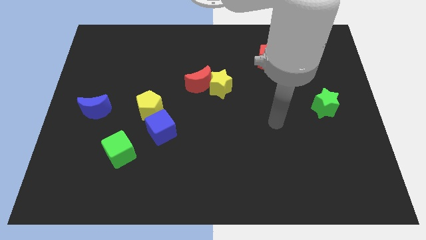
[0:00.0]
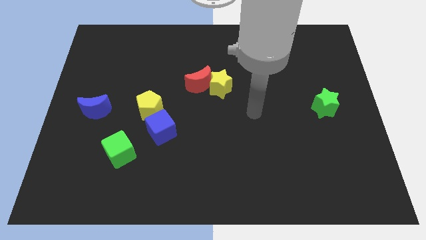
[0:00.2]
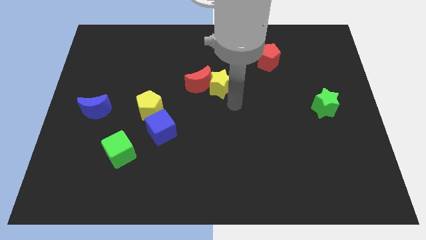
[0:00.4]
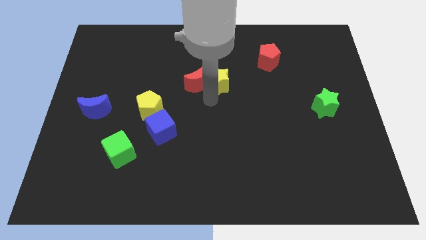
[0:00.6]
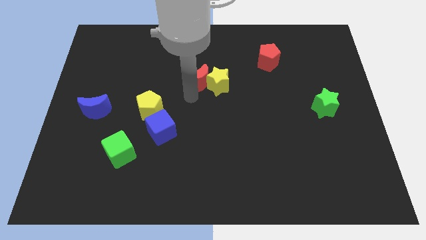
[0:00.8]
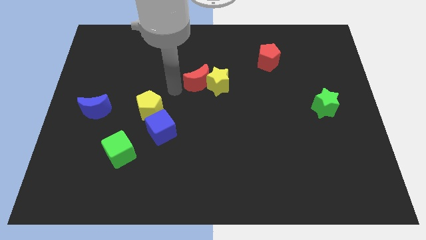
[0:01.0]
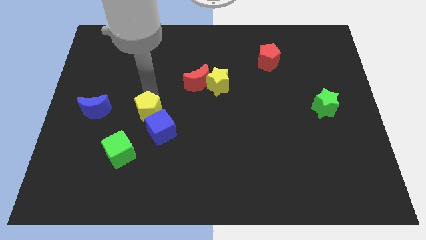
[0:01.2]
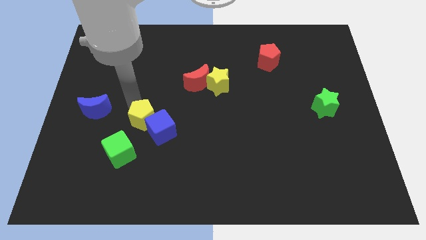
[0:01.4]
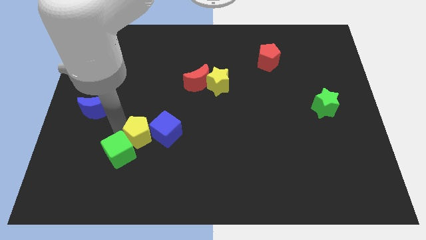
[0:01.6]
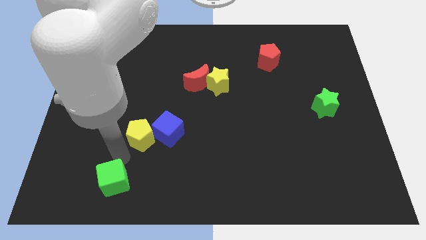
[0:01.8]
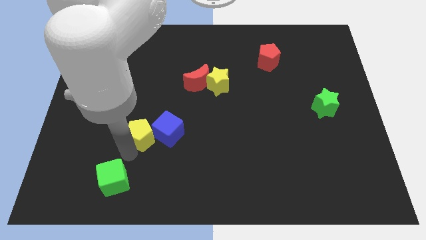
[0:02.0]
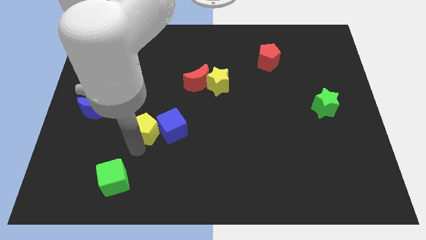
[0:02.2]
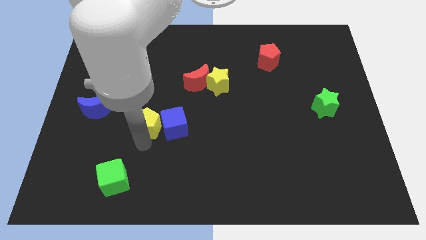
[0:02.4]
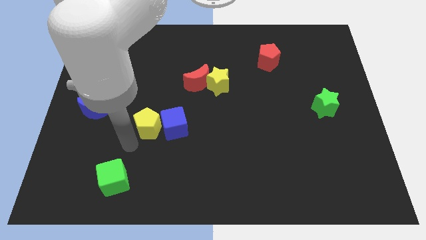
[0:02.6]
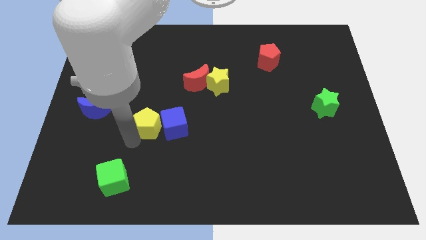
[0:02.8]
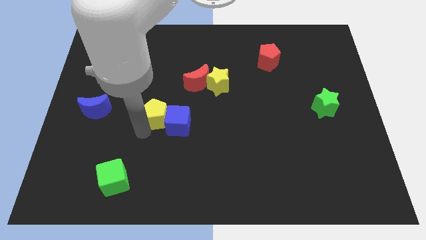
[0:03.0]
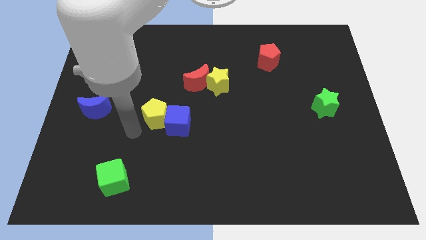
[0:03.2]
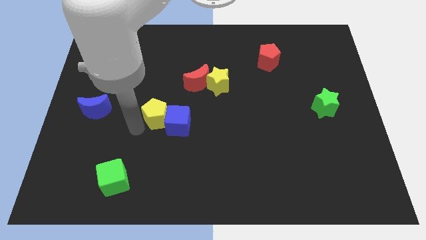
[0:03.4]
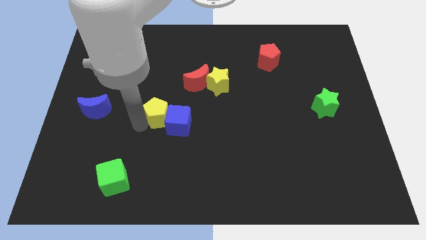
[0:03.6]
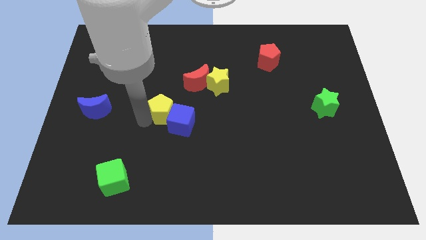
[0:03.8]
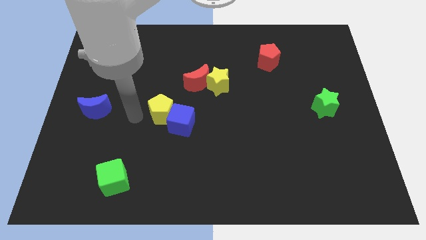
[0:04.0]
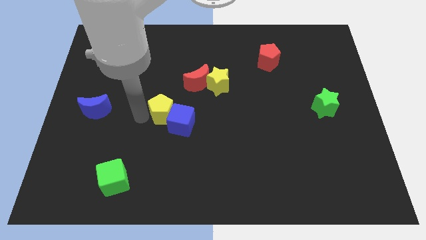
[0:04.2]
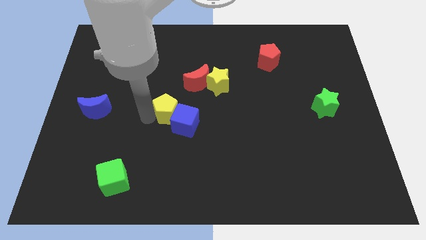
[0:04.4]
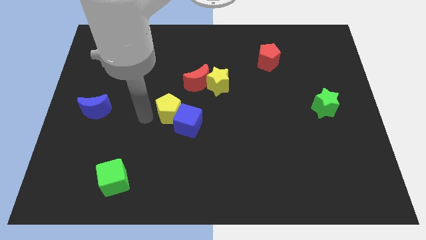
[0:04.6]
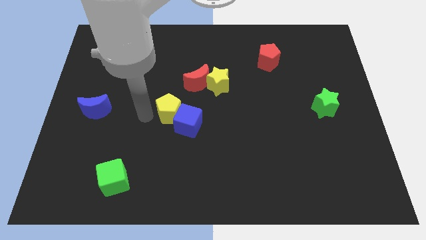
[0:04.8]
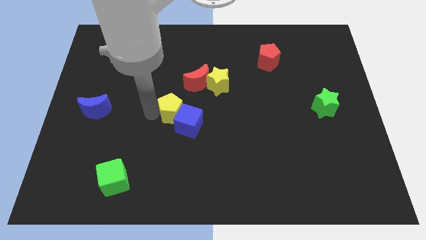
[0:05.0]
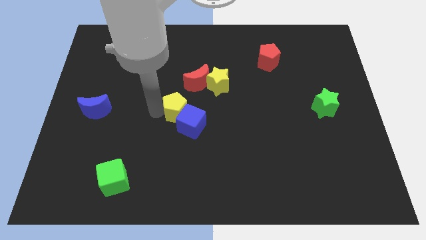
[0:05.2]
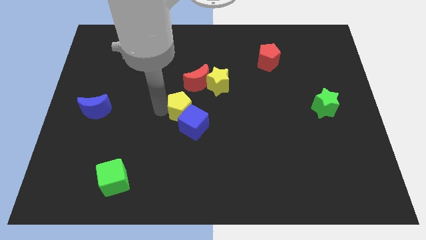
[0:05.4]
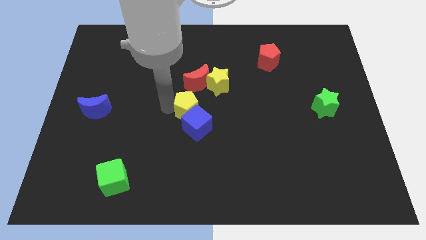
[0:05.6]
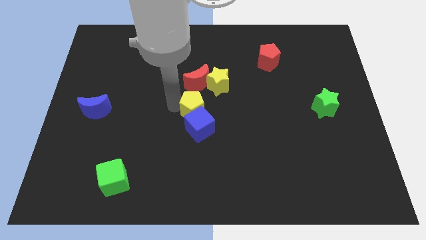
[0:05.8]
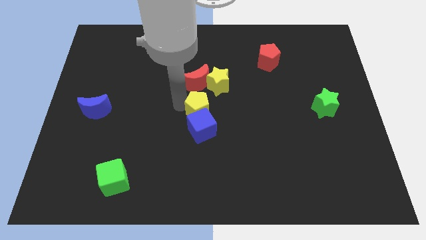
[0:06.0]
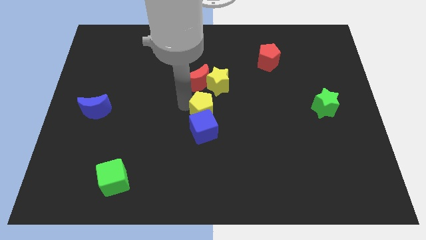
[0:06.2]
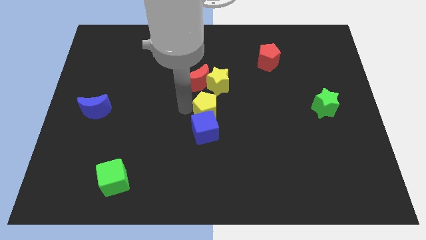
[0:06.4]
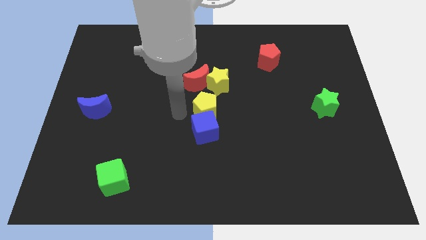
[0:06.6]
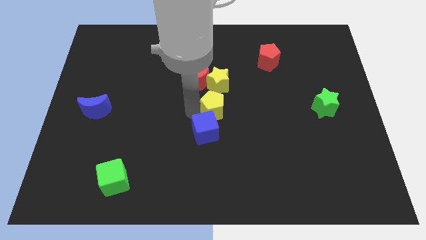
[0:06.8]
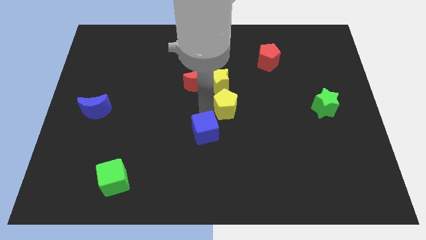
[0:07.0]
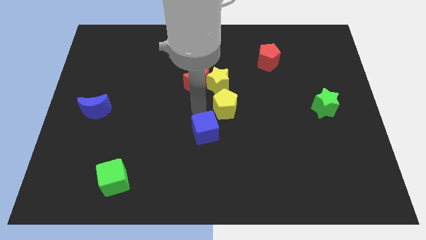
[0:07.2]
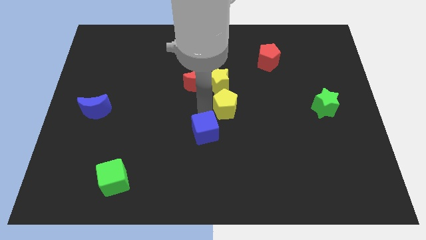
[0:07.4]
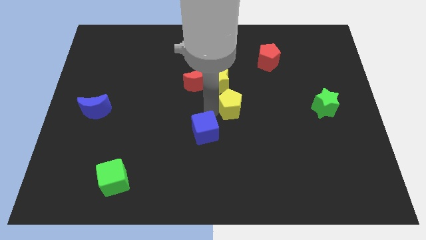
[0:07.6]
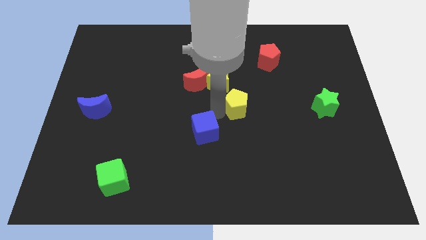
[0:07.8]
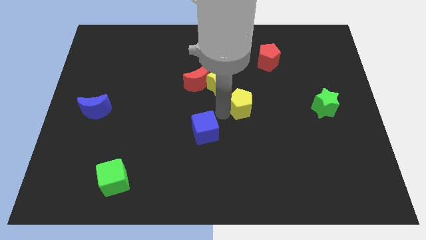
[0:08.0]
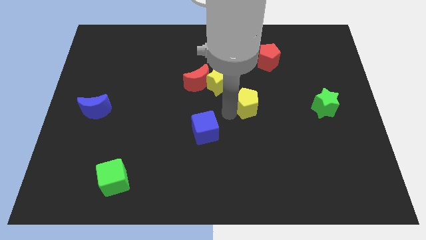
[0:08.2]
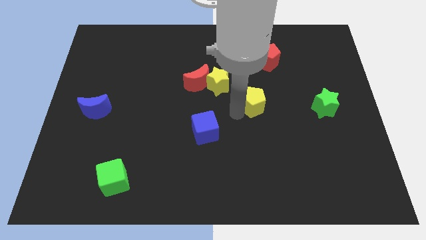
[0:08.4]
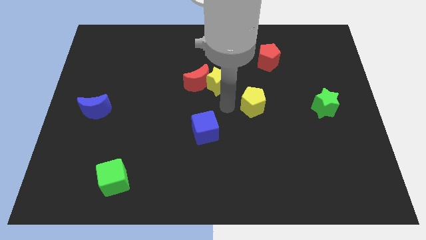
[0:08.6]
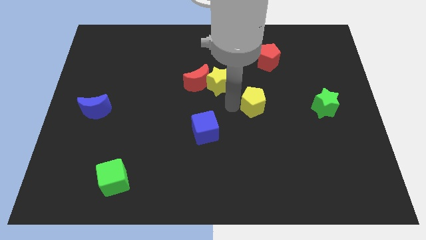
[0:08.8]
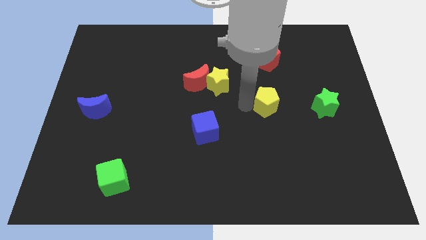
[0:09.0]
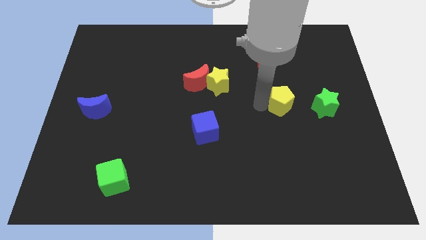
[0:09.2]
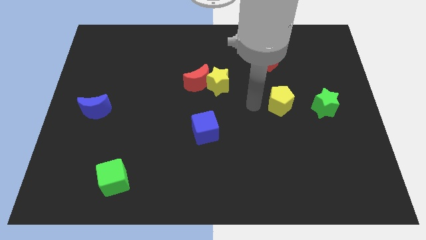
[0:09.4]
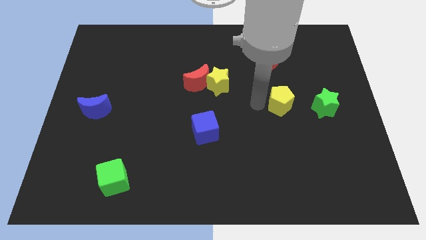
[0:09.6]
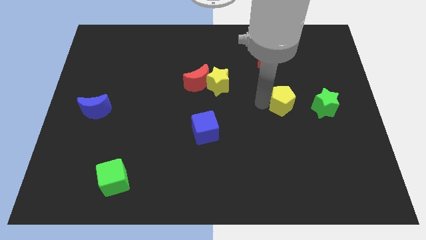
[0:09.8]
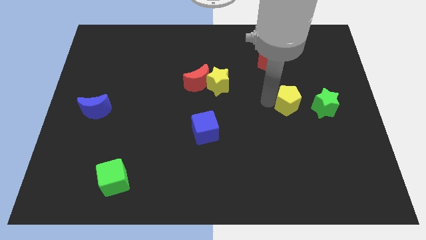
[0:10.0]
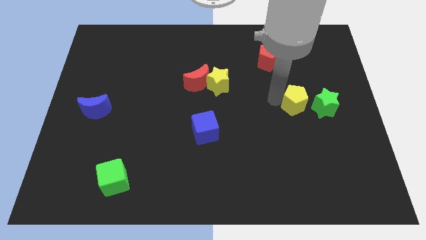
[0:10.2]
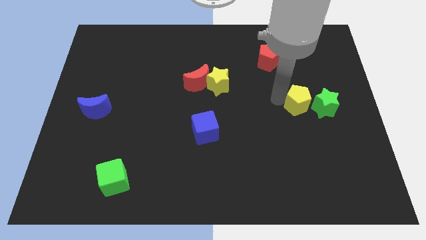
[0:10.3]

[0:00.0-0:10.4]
move the yellow pentagon towards the green star

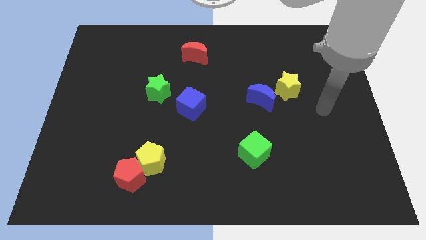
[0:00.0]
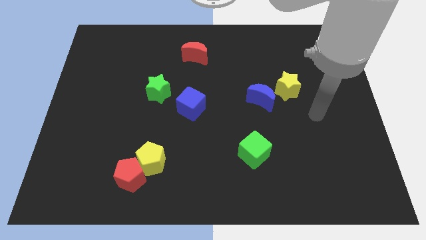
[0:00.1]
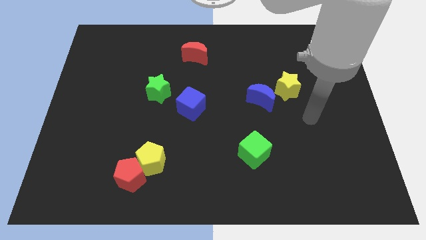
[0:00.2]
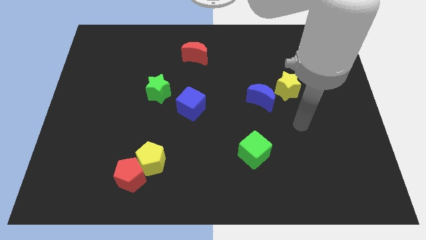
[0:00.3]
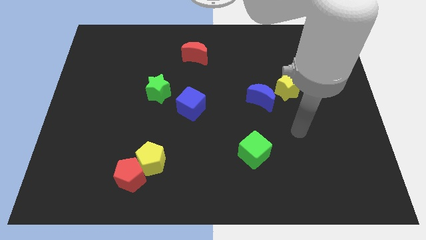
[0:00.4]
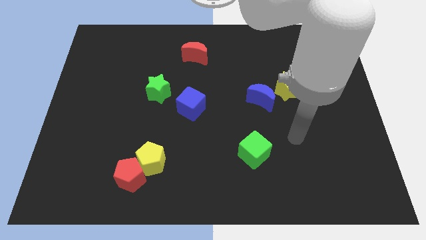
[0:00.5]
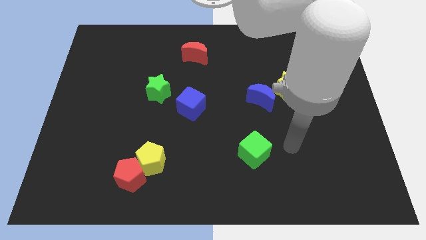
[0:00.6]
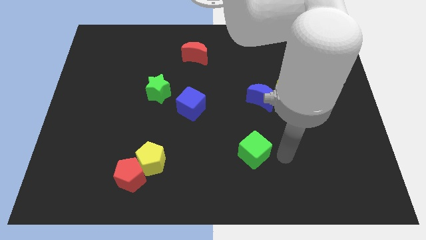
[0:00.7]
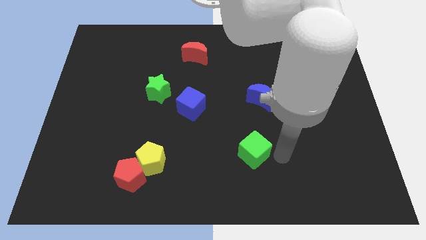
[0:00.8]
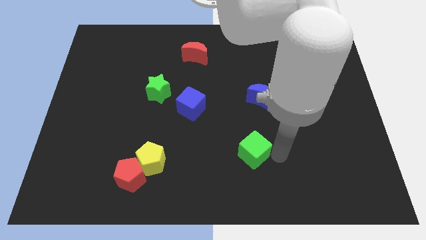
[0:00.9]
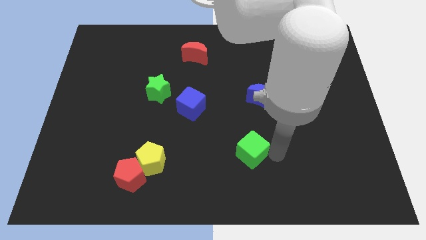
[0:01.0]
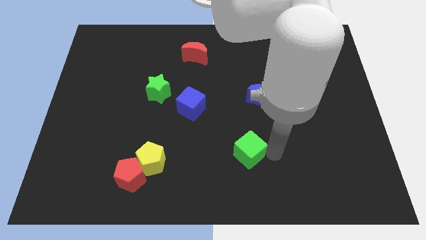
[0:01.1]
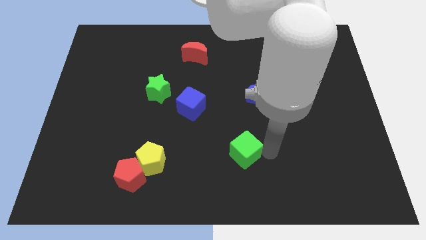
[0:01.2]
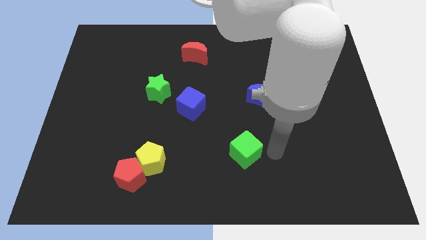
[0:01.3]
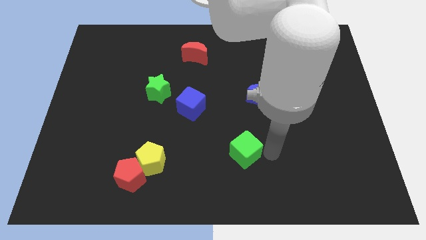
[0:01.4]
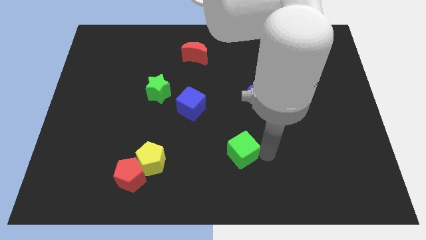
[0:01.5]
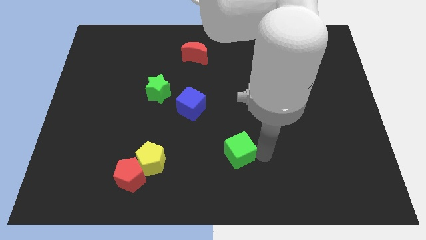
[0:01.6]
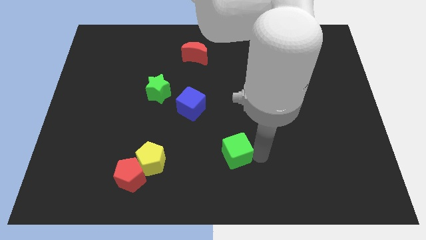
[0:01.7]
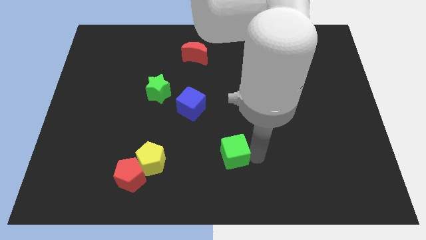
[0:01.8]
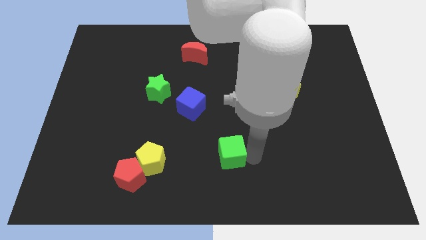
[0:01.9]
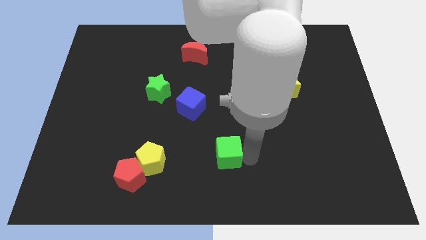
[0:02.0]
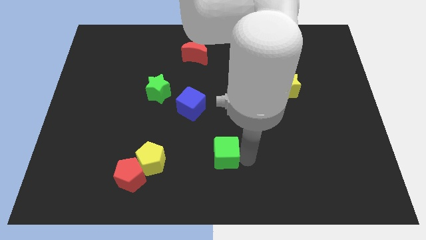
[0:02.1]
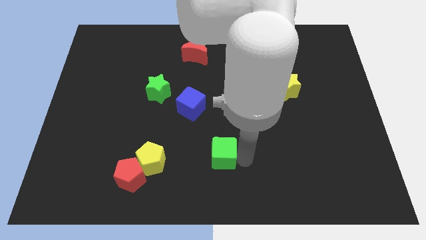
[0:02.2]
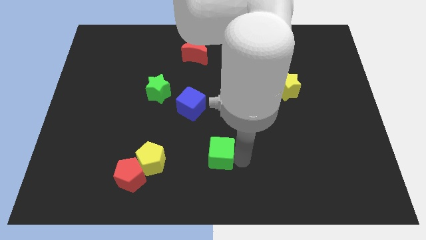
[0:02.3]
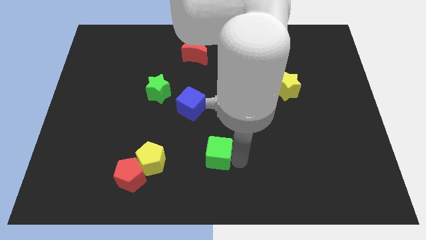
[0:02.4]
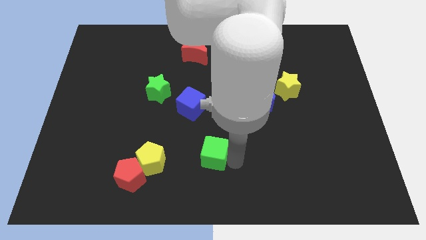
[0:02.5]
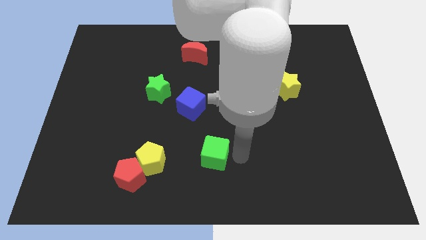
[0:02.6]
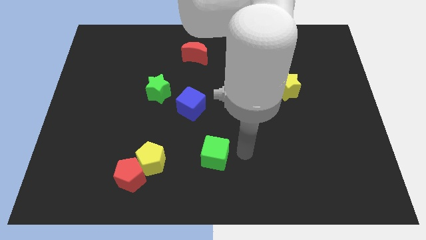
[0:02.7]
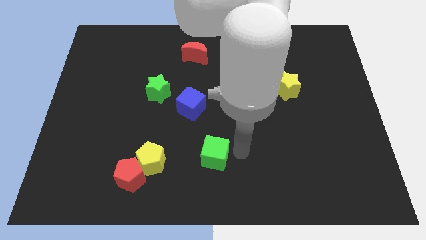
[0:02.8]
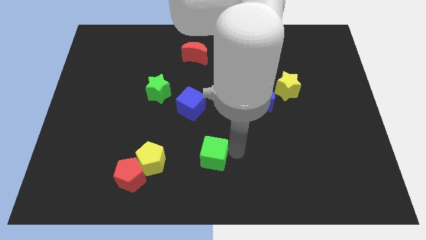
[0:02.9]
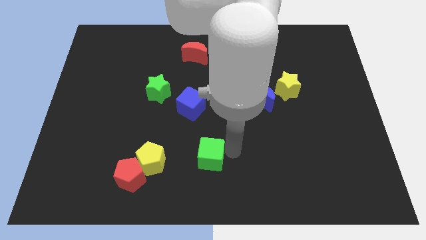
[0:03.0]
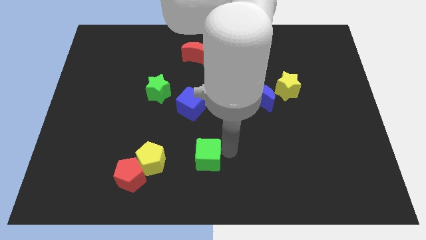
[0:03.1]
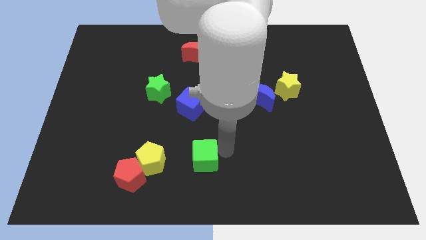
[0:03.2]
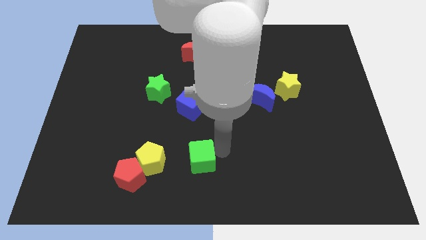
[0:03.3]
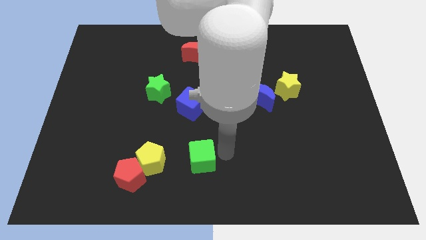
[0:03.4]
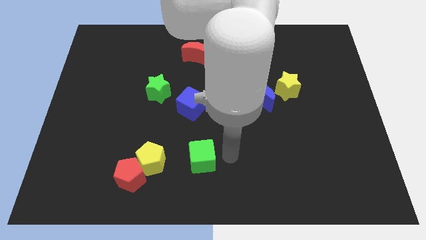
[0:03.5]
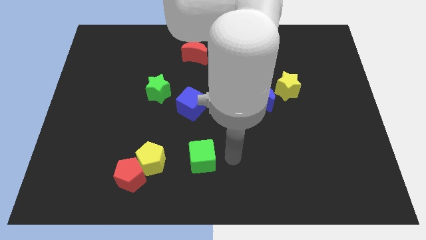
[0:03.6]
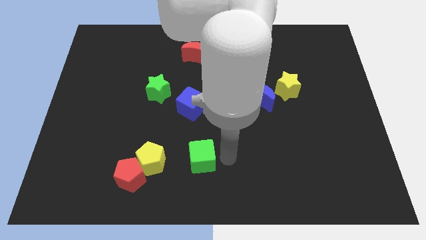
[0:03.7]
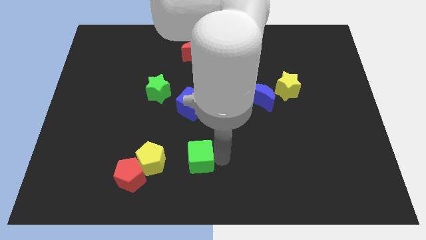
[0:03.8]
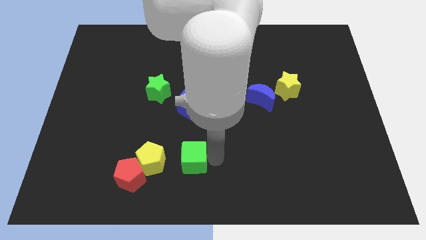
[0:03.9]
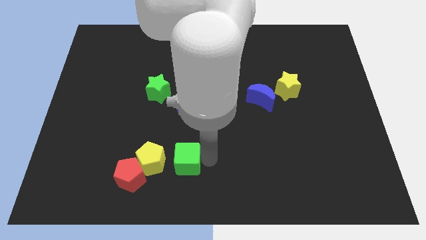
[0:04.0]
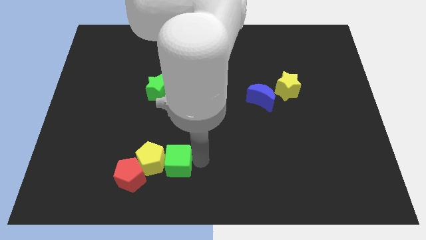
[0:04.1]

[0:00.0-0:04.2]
push the green cube close to the yellow pentagon
